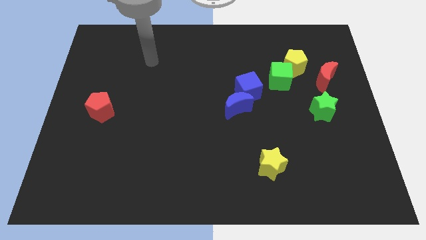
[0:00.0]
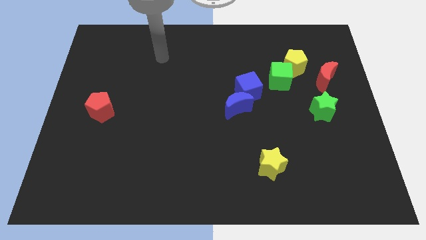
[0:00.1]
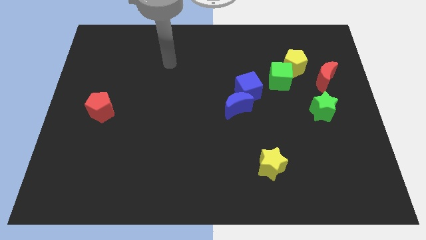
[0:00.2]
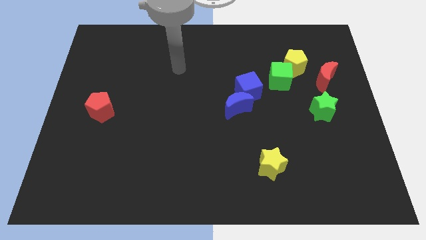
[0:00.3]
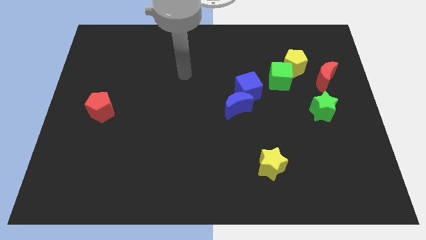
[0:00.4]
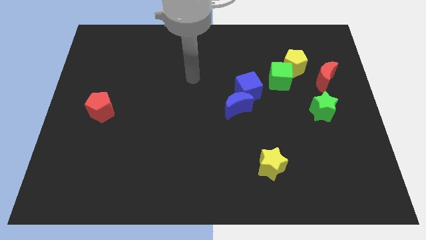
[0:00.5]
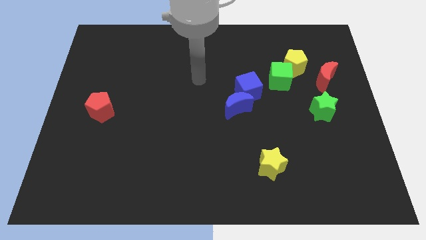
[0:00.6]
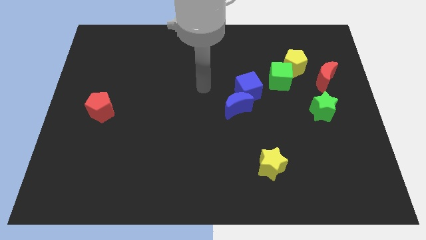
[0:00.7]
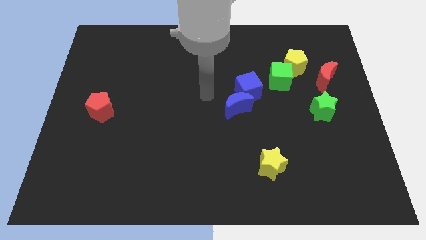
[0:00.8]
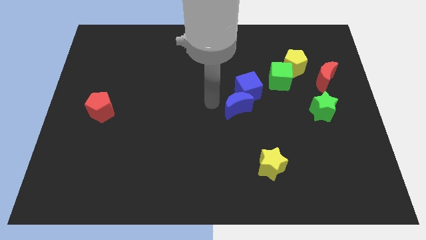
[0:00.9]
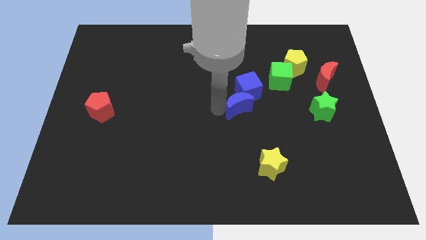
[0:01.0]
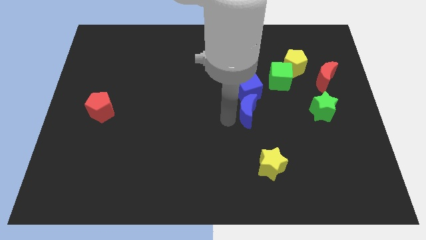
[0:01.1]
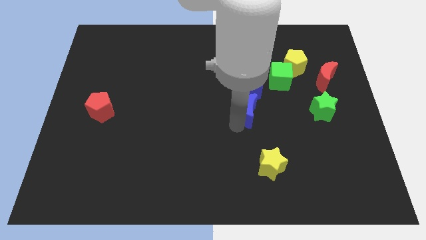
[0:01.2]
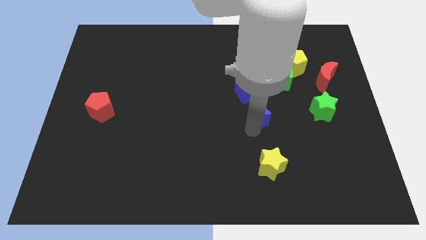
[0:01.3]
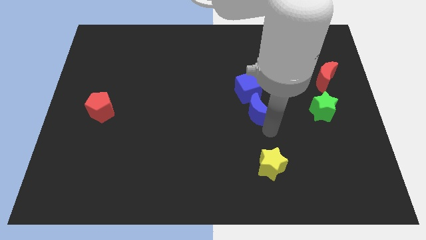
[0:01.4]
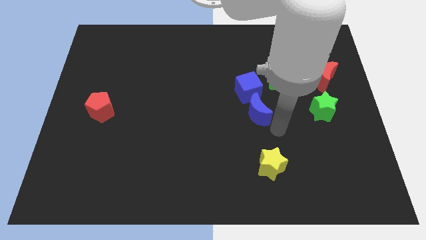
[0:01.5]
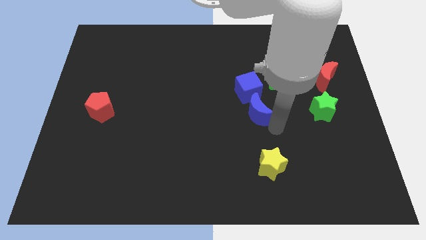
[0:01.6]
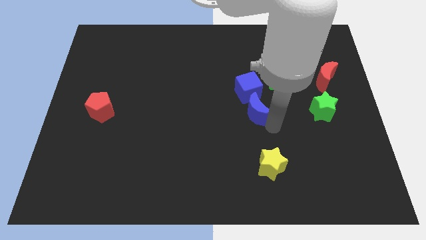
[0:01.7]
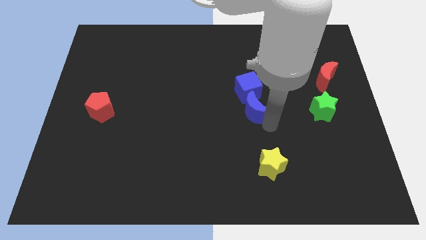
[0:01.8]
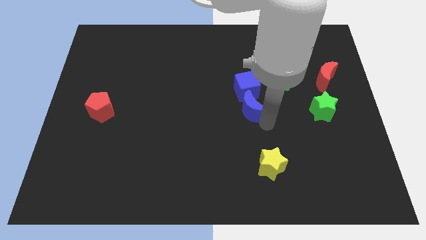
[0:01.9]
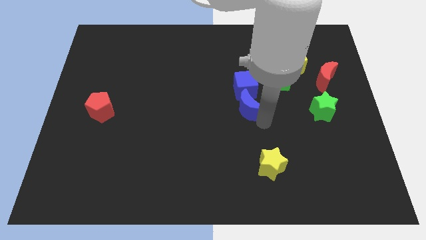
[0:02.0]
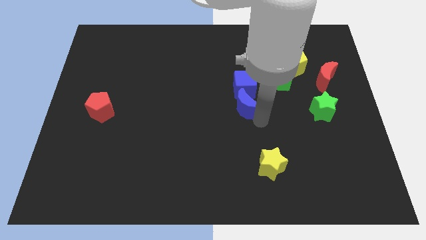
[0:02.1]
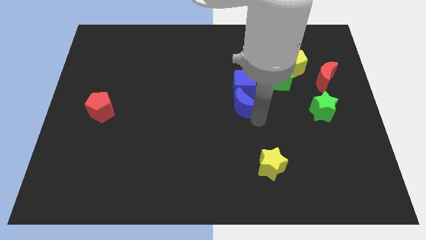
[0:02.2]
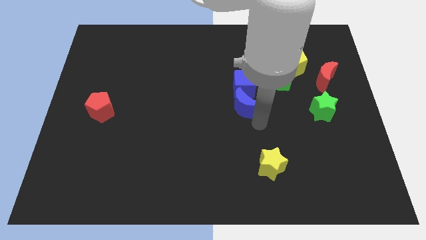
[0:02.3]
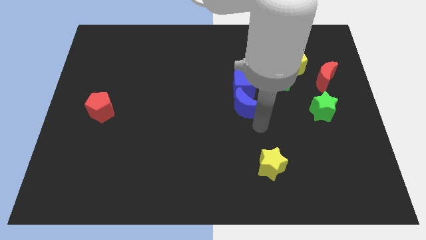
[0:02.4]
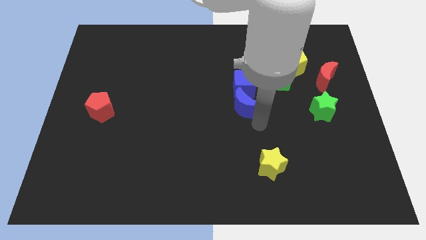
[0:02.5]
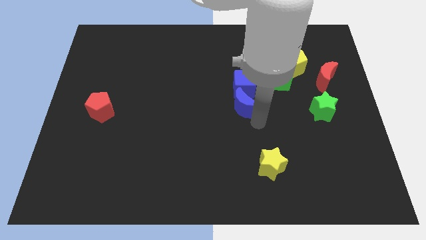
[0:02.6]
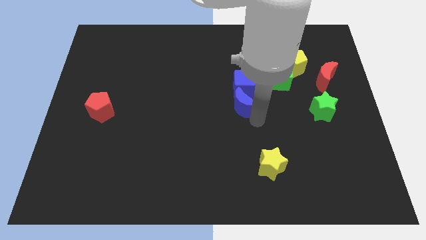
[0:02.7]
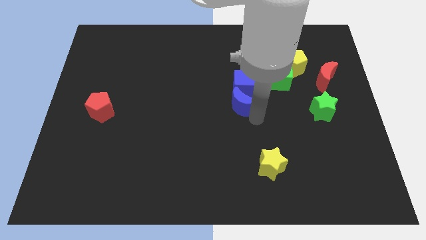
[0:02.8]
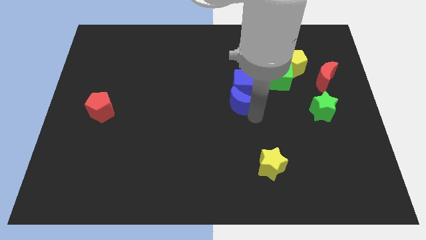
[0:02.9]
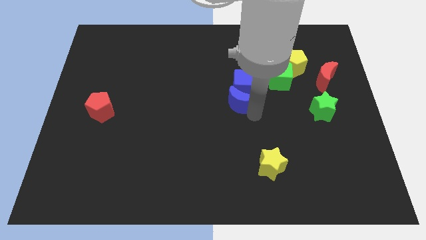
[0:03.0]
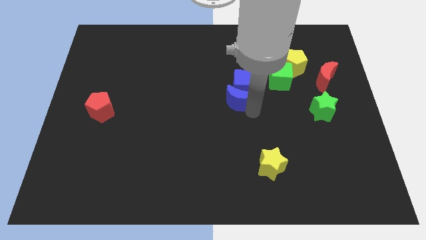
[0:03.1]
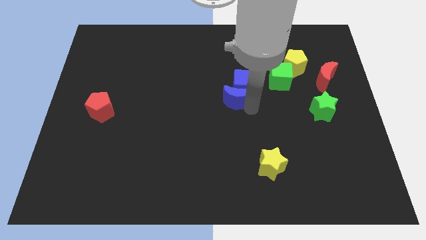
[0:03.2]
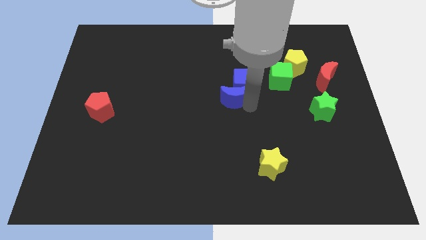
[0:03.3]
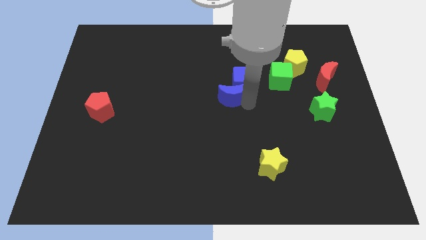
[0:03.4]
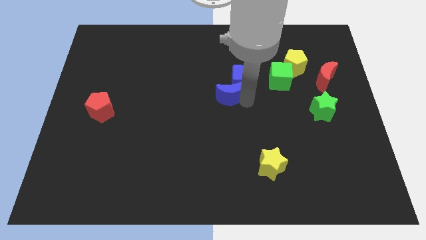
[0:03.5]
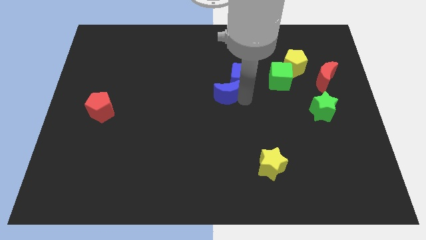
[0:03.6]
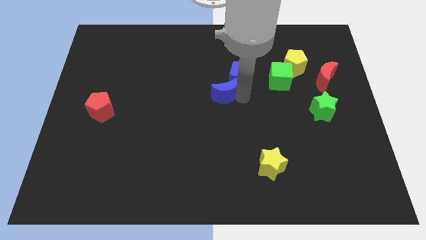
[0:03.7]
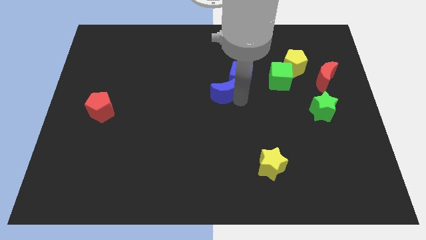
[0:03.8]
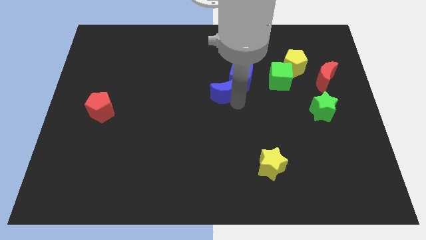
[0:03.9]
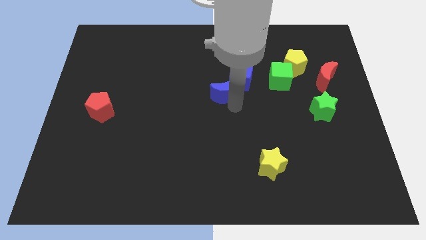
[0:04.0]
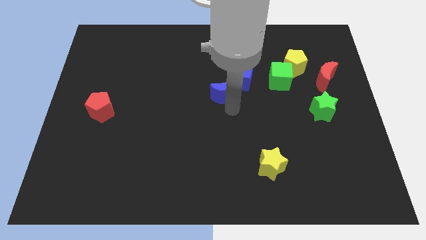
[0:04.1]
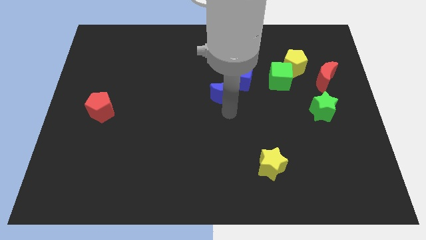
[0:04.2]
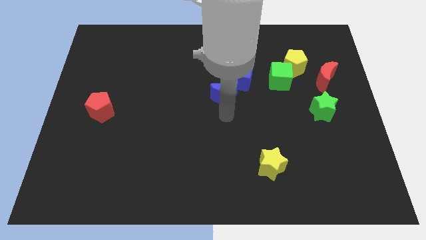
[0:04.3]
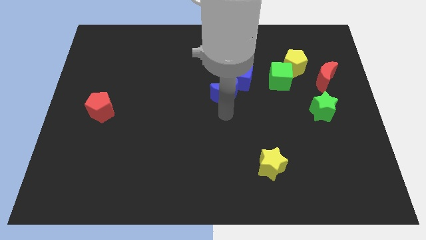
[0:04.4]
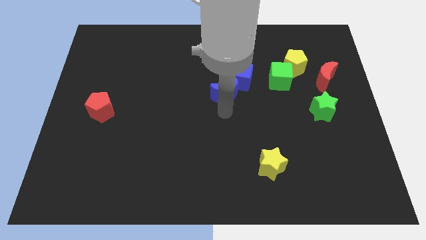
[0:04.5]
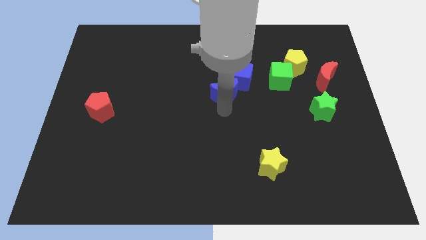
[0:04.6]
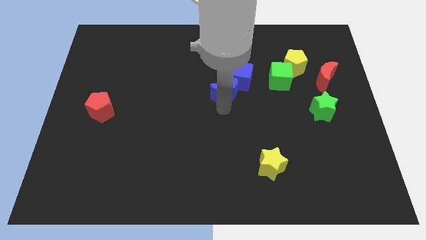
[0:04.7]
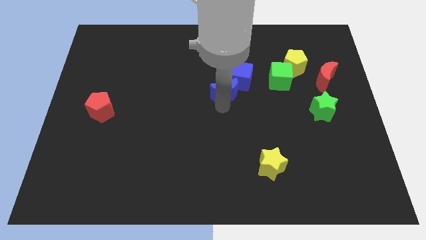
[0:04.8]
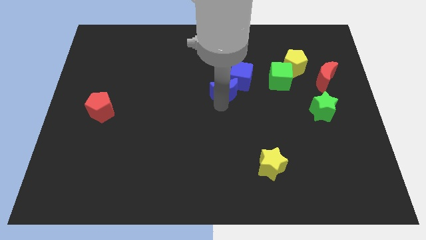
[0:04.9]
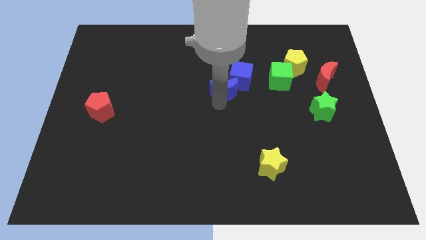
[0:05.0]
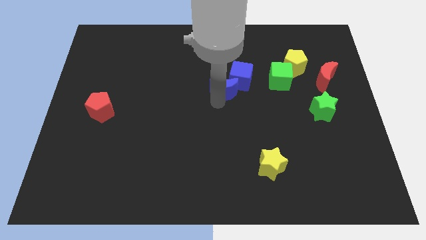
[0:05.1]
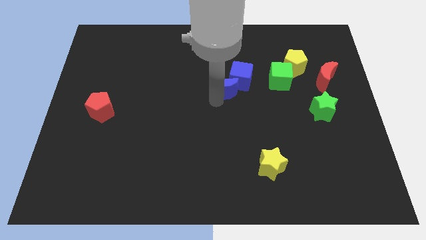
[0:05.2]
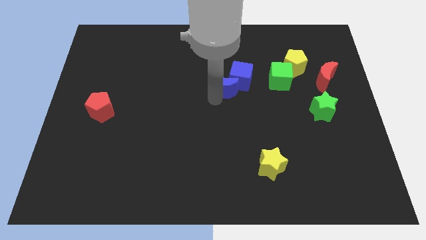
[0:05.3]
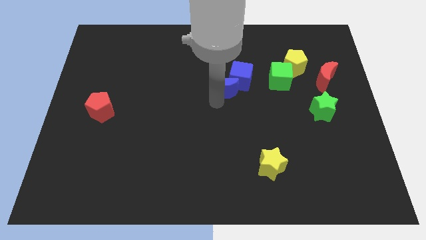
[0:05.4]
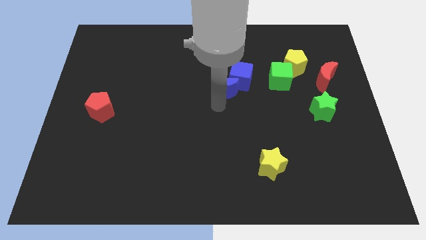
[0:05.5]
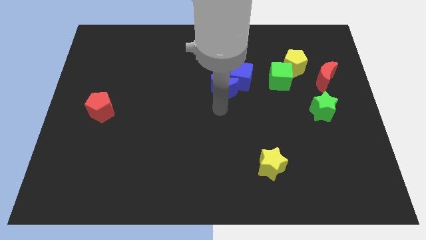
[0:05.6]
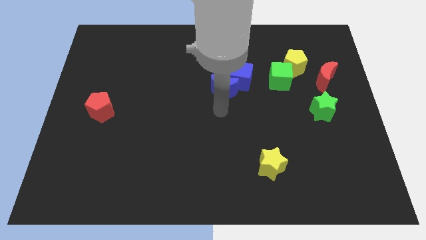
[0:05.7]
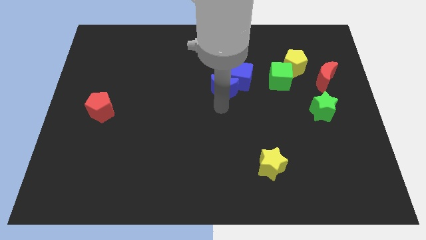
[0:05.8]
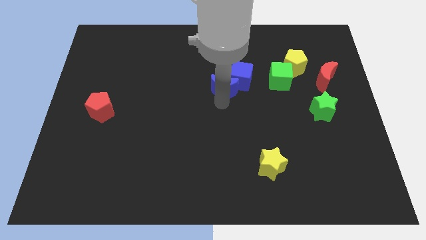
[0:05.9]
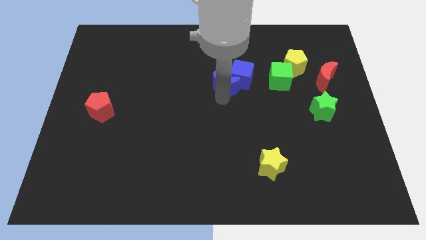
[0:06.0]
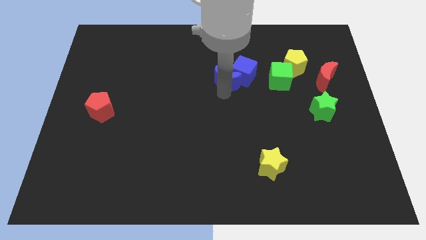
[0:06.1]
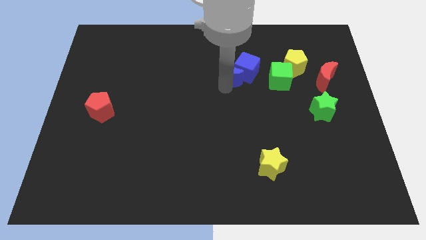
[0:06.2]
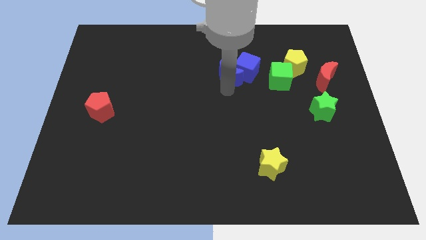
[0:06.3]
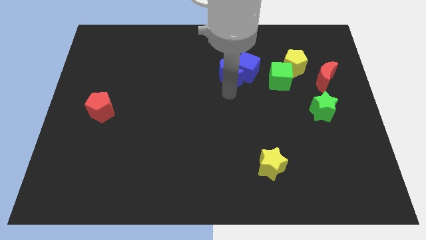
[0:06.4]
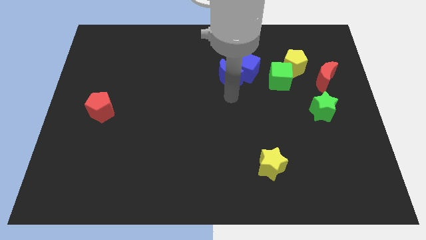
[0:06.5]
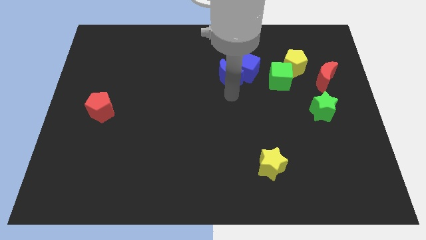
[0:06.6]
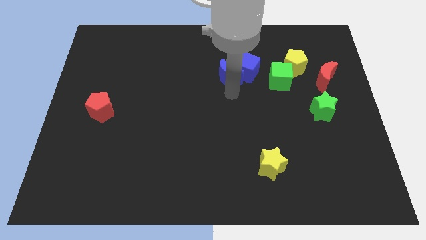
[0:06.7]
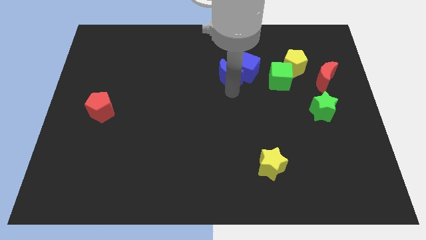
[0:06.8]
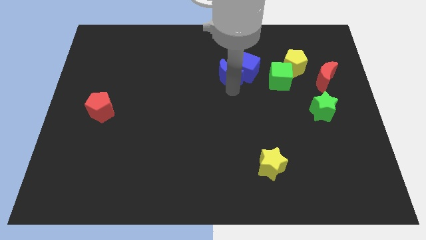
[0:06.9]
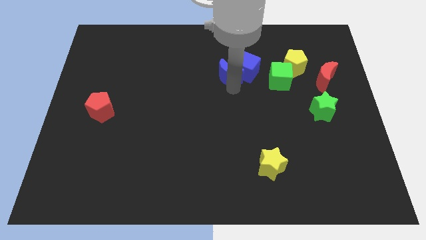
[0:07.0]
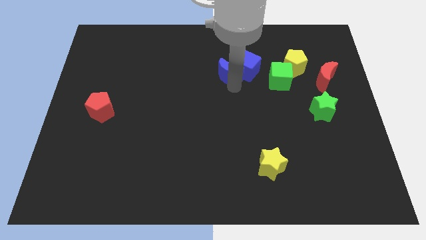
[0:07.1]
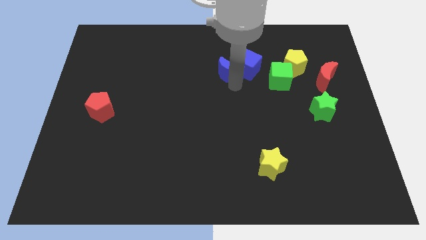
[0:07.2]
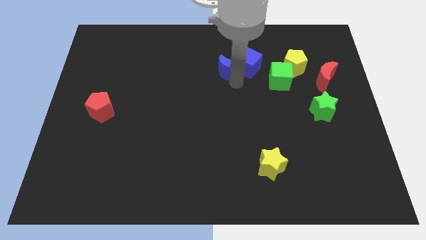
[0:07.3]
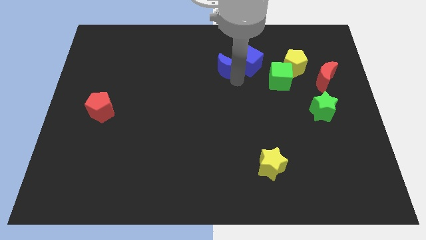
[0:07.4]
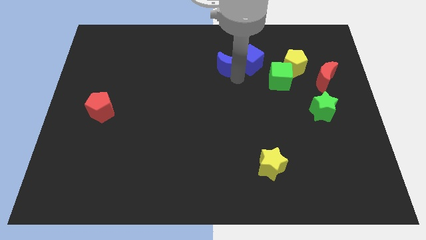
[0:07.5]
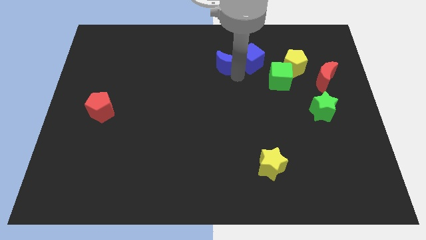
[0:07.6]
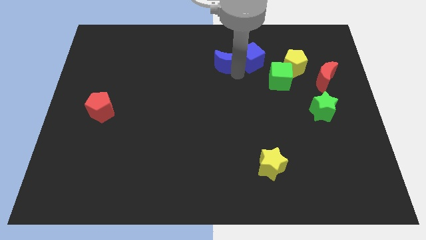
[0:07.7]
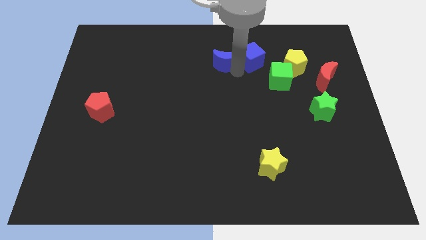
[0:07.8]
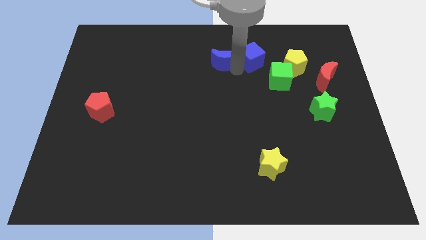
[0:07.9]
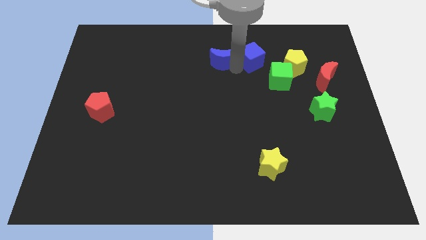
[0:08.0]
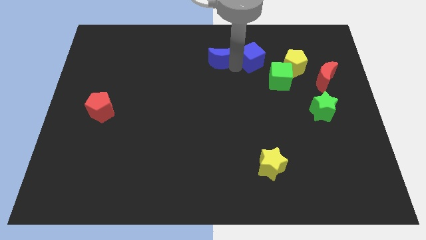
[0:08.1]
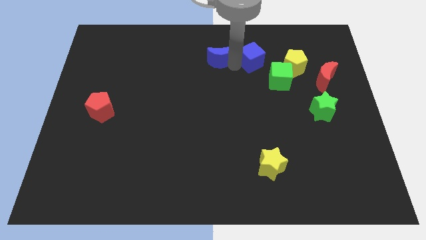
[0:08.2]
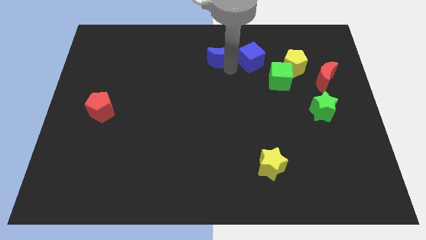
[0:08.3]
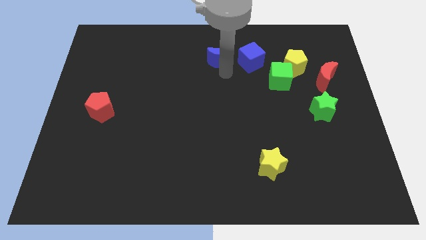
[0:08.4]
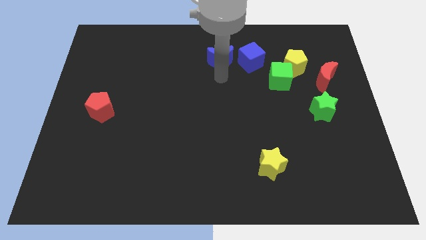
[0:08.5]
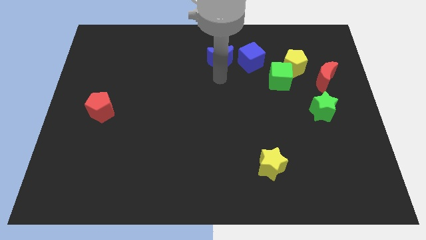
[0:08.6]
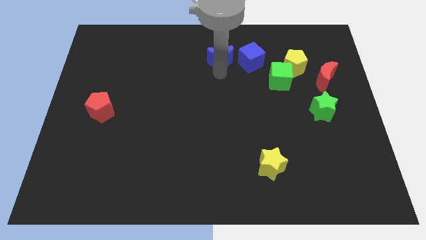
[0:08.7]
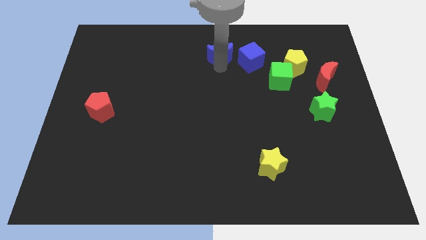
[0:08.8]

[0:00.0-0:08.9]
push the blue moon to the towards your base
